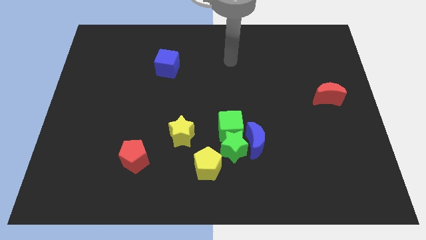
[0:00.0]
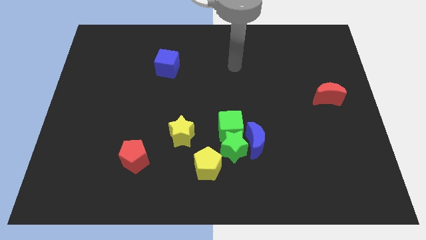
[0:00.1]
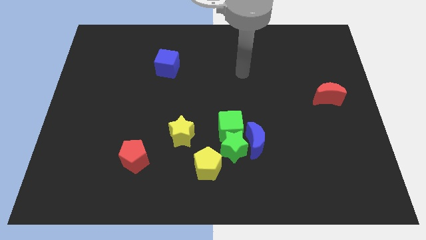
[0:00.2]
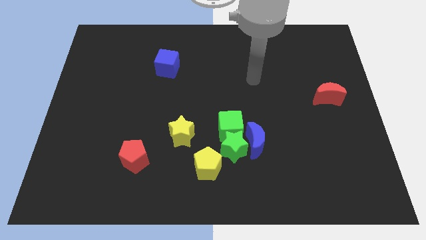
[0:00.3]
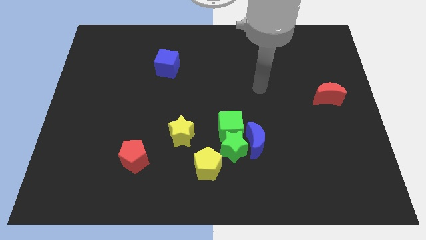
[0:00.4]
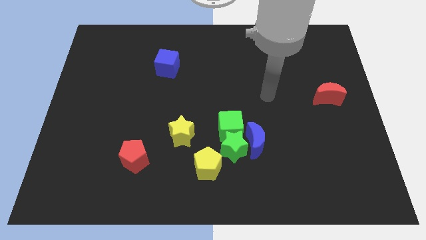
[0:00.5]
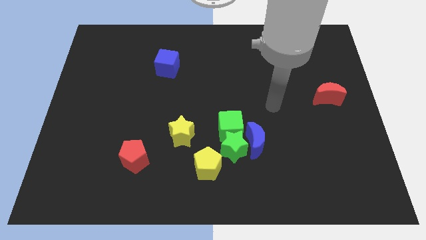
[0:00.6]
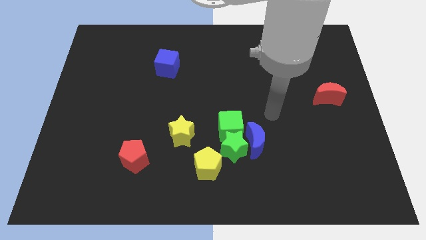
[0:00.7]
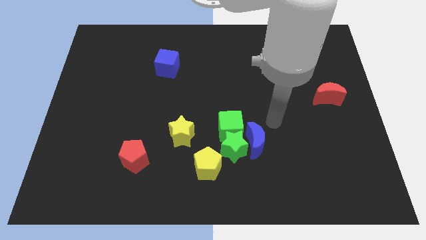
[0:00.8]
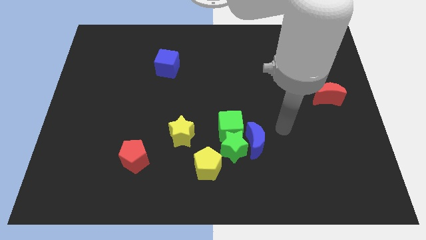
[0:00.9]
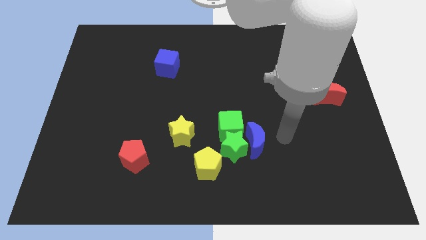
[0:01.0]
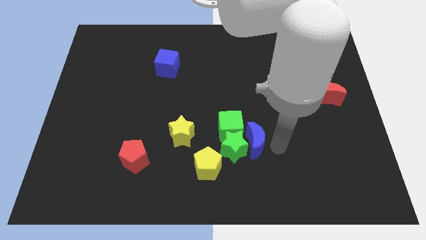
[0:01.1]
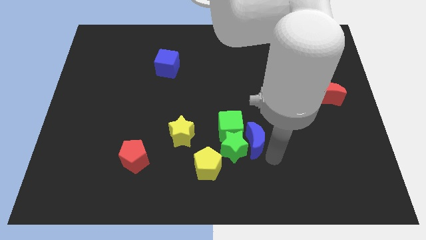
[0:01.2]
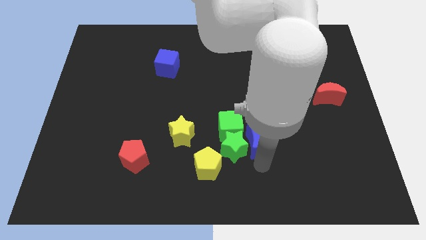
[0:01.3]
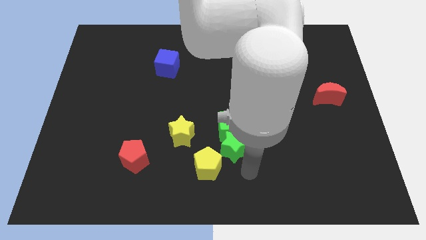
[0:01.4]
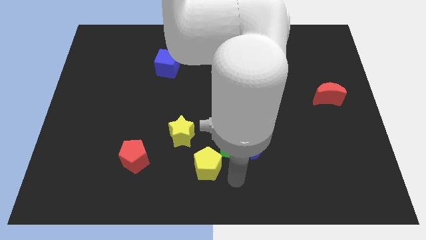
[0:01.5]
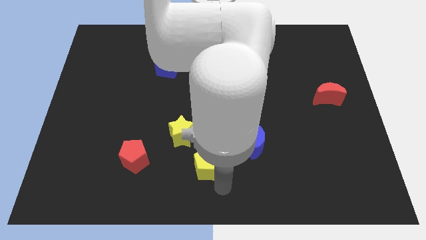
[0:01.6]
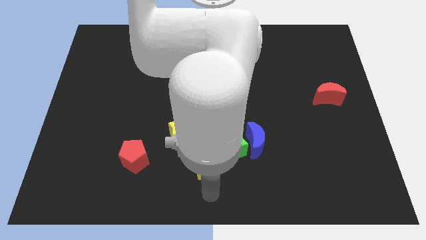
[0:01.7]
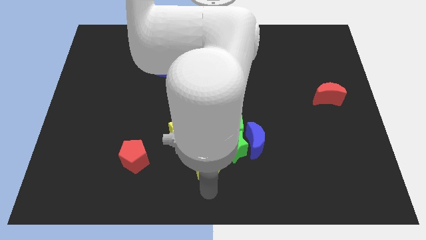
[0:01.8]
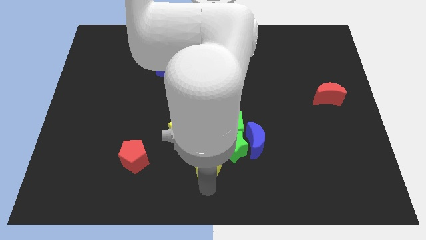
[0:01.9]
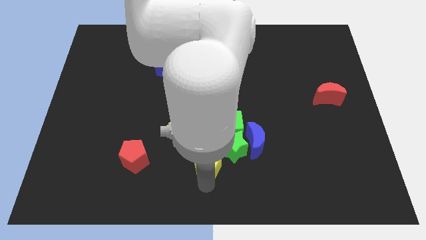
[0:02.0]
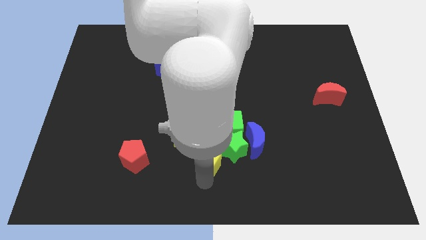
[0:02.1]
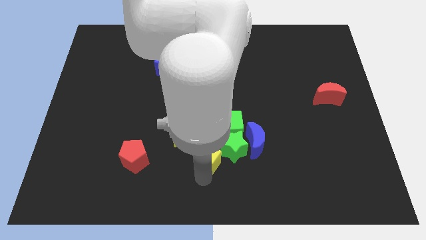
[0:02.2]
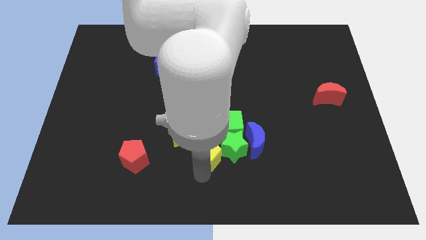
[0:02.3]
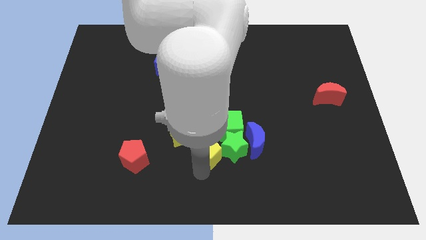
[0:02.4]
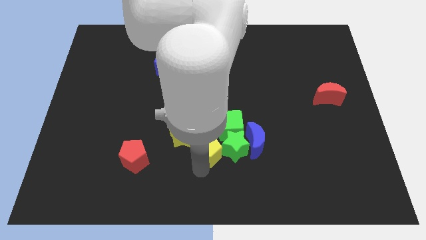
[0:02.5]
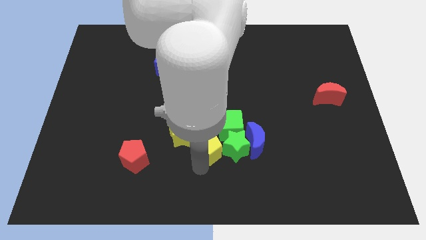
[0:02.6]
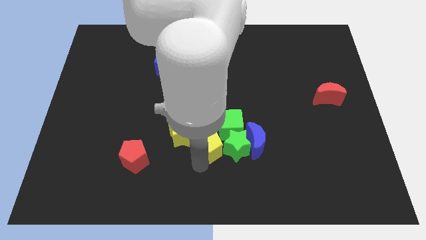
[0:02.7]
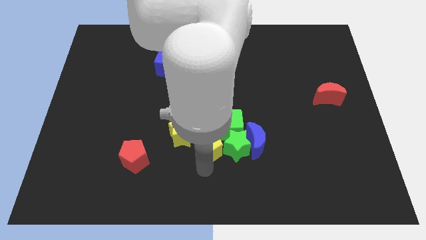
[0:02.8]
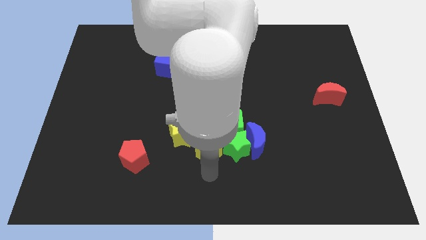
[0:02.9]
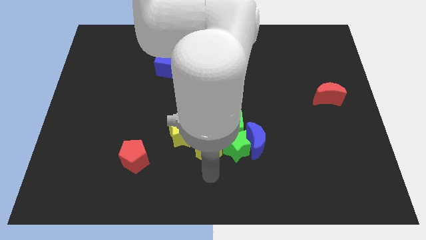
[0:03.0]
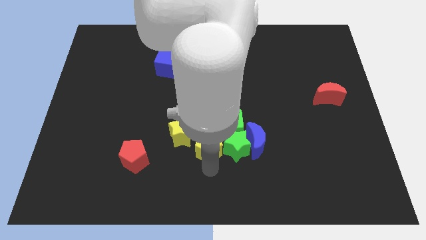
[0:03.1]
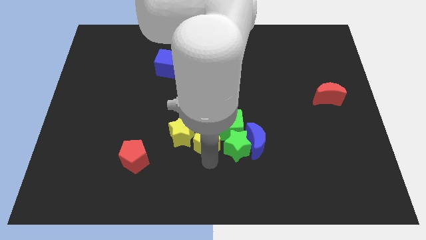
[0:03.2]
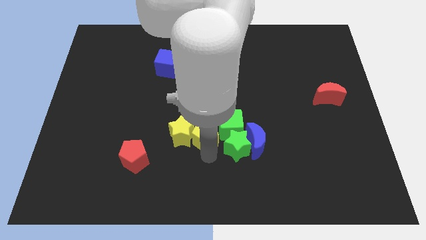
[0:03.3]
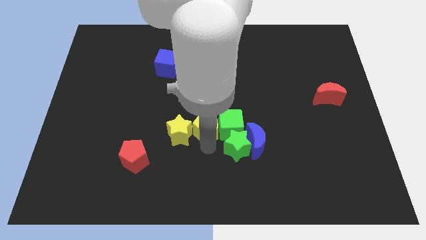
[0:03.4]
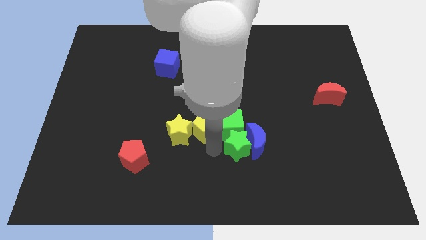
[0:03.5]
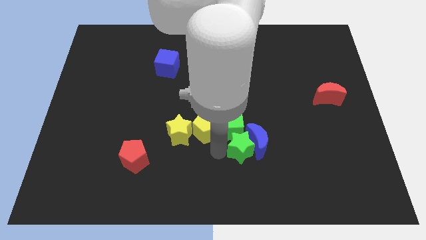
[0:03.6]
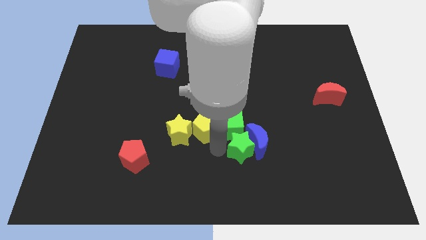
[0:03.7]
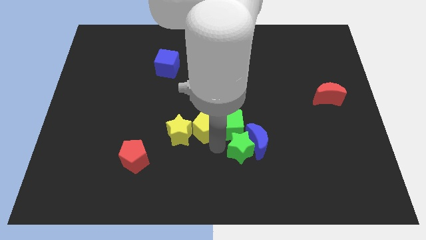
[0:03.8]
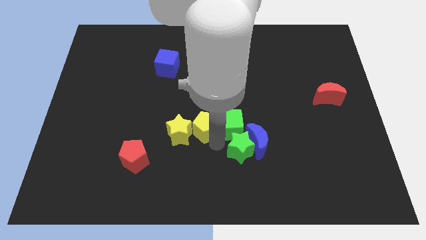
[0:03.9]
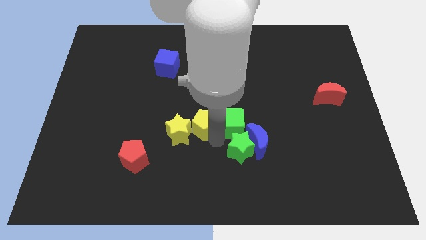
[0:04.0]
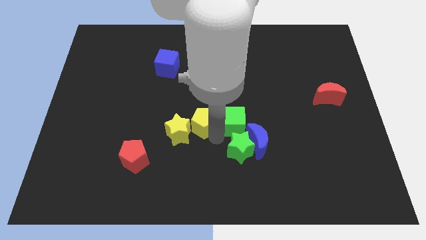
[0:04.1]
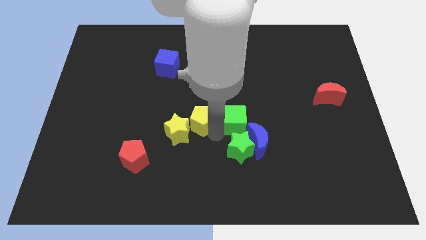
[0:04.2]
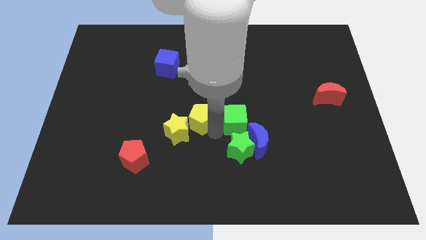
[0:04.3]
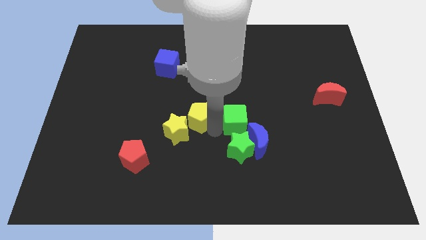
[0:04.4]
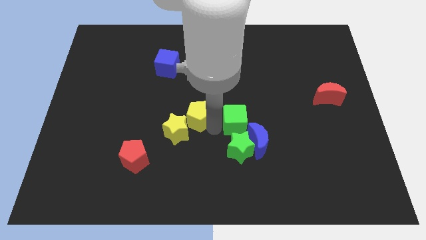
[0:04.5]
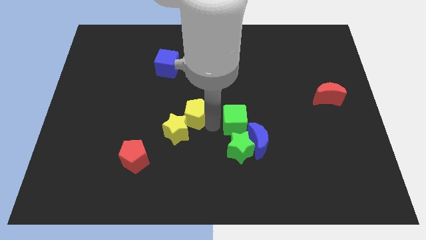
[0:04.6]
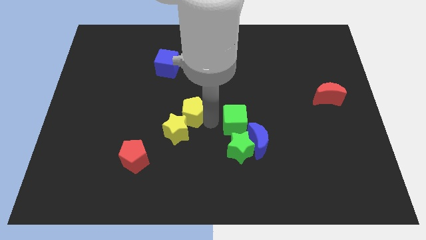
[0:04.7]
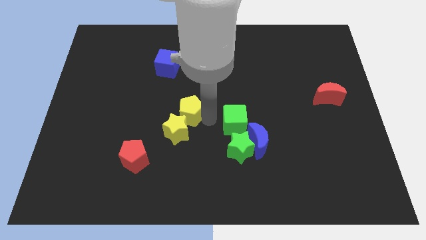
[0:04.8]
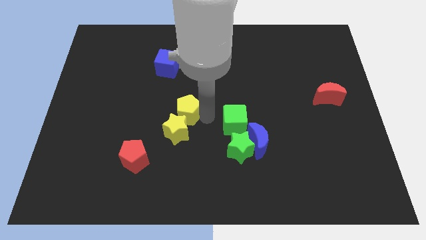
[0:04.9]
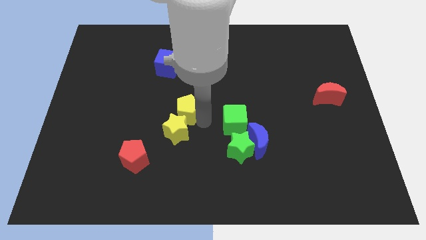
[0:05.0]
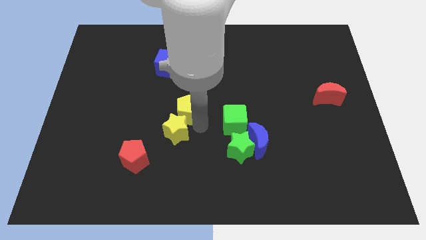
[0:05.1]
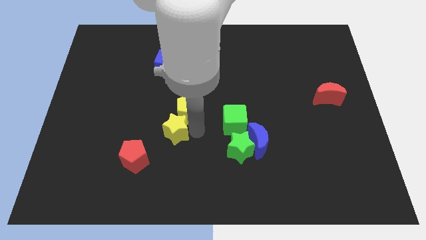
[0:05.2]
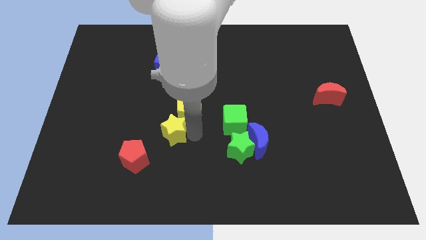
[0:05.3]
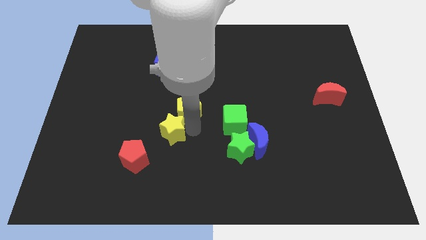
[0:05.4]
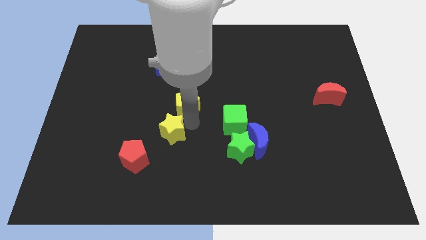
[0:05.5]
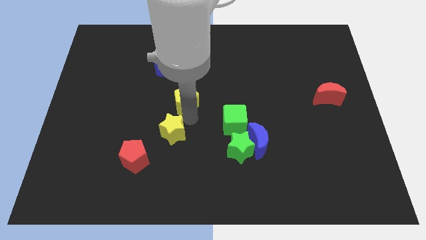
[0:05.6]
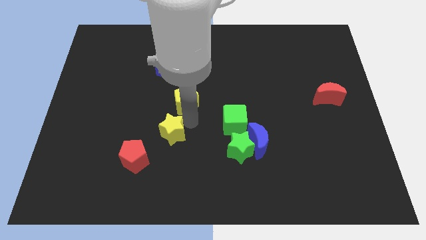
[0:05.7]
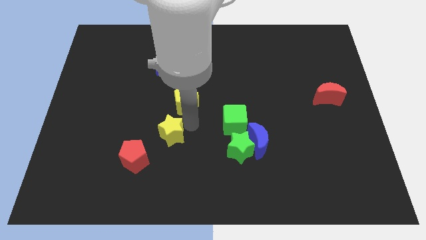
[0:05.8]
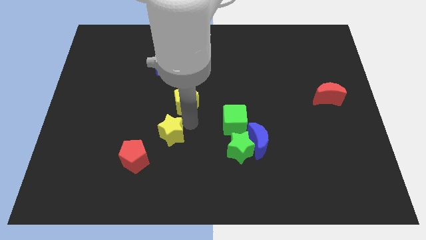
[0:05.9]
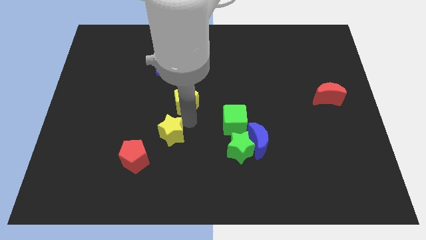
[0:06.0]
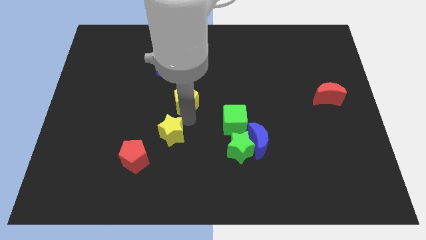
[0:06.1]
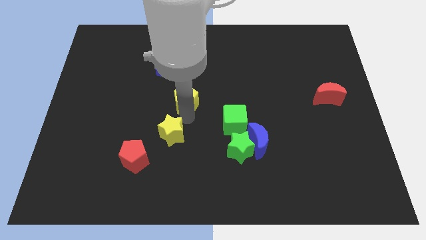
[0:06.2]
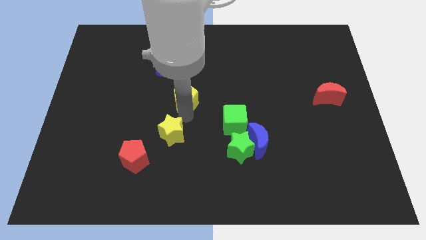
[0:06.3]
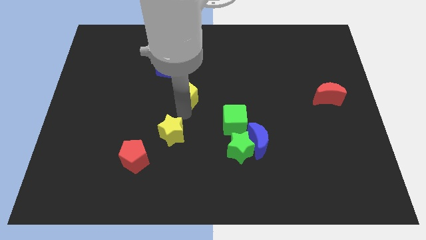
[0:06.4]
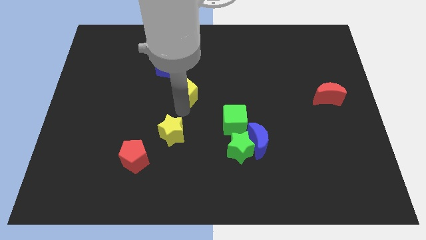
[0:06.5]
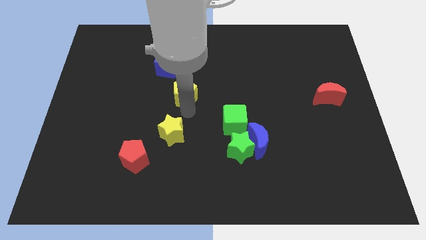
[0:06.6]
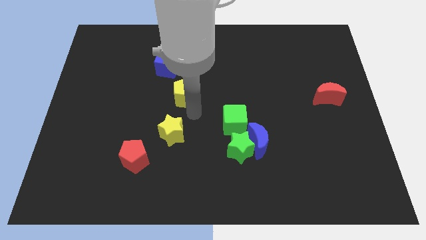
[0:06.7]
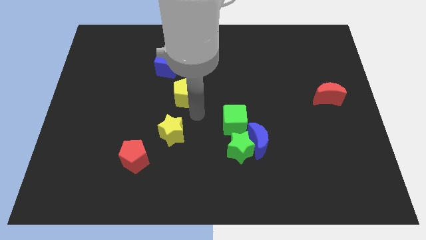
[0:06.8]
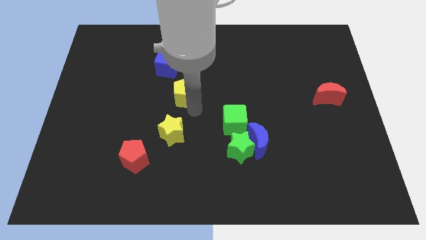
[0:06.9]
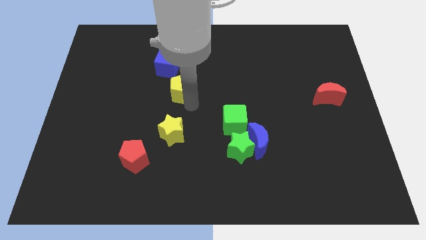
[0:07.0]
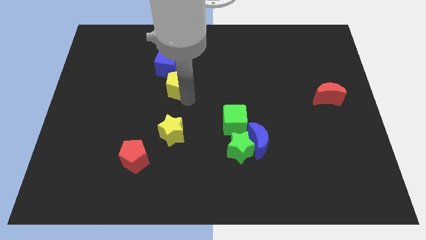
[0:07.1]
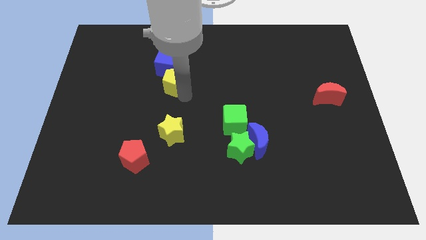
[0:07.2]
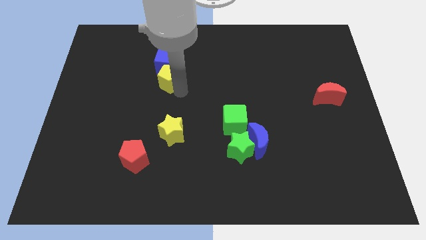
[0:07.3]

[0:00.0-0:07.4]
put the yellow pentagon next to the blue cube
